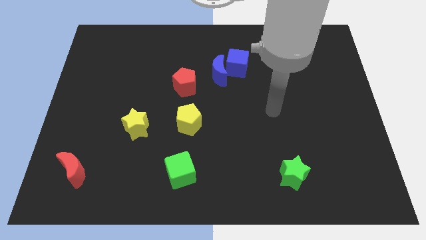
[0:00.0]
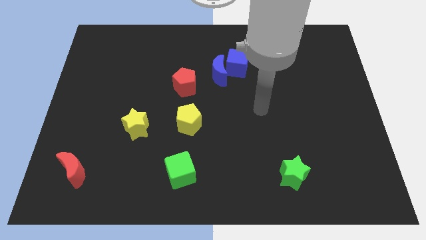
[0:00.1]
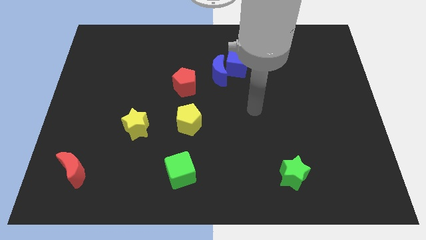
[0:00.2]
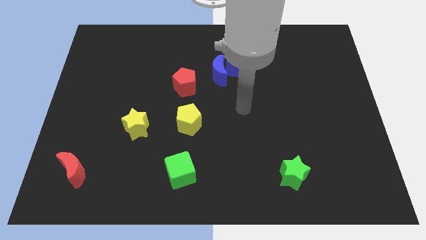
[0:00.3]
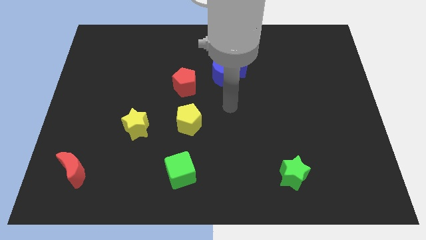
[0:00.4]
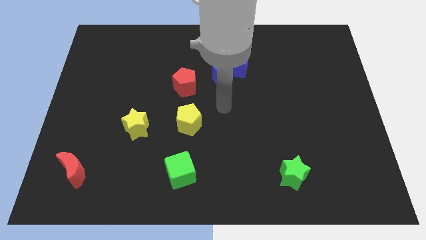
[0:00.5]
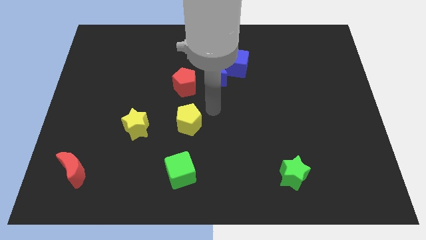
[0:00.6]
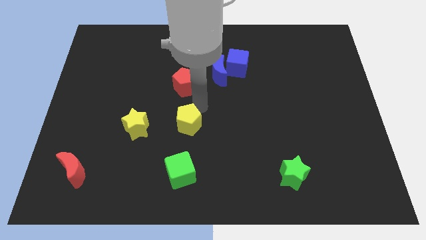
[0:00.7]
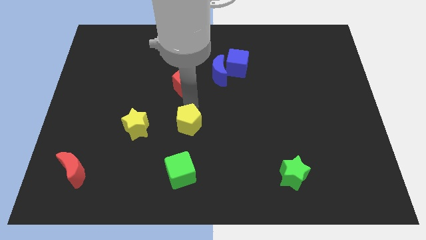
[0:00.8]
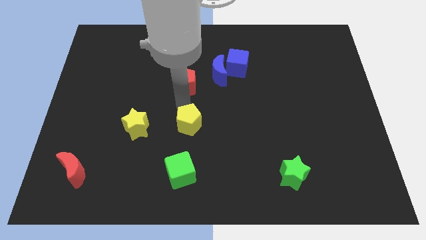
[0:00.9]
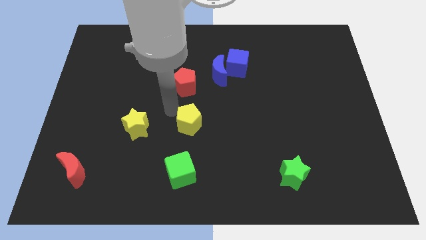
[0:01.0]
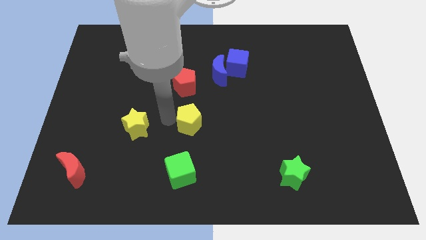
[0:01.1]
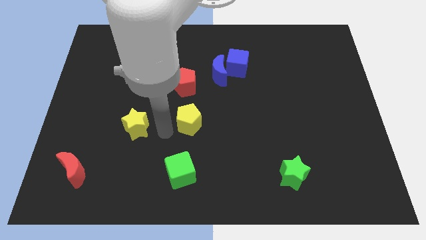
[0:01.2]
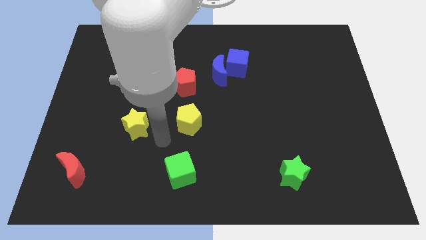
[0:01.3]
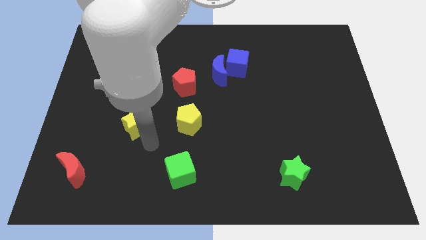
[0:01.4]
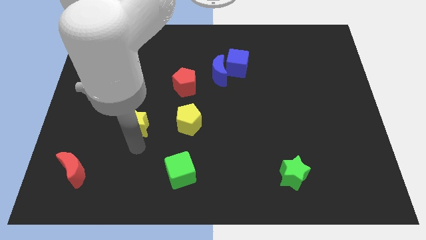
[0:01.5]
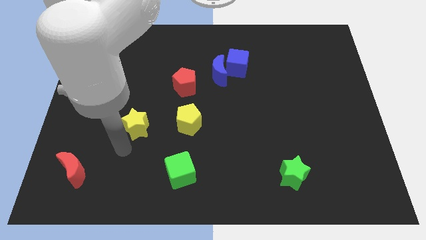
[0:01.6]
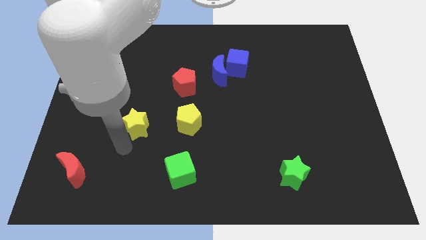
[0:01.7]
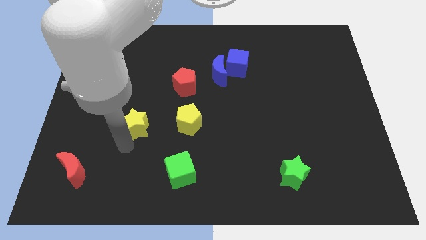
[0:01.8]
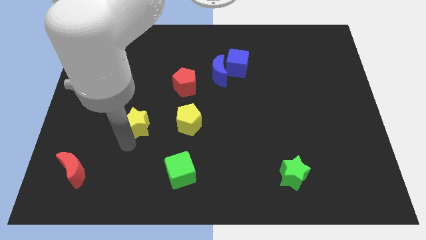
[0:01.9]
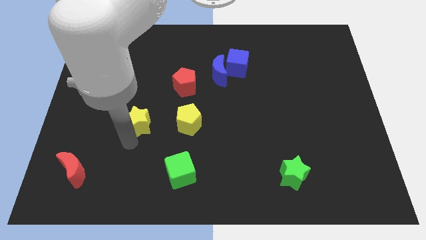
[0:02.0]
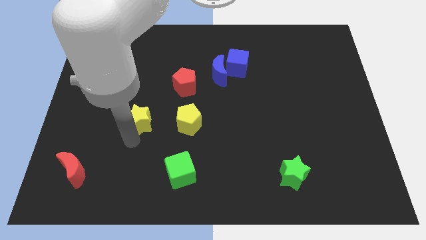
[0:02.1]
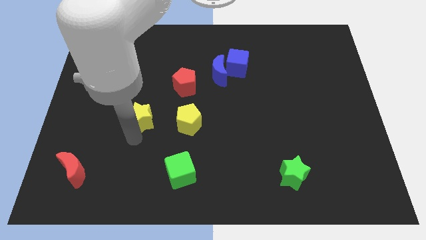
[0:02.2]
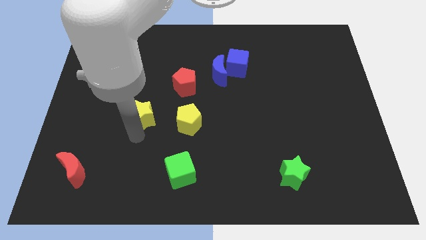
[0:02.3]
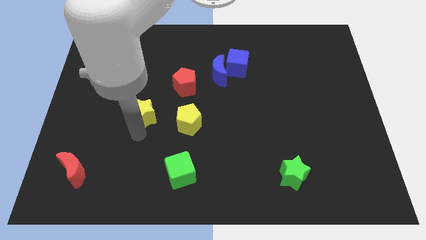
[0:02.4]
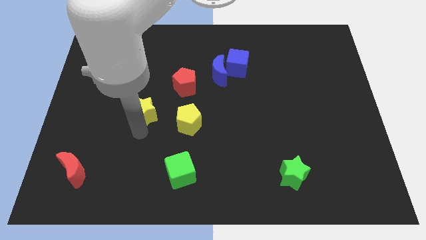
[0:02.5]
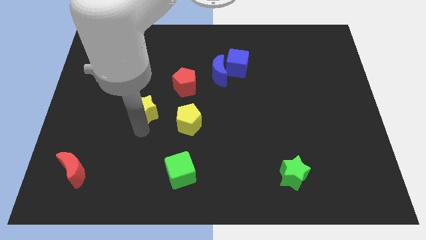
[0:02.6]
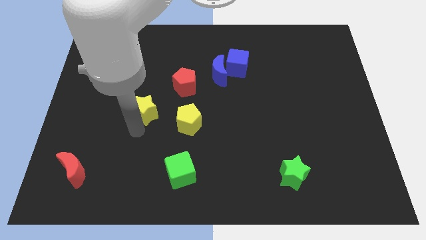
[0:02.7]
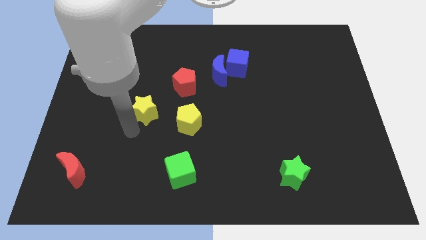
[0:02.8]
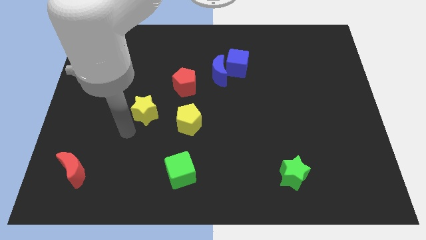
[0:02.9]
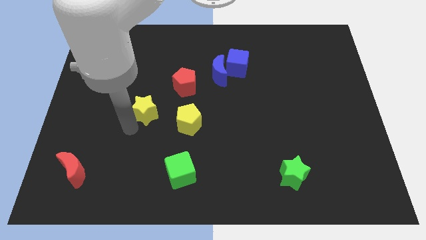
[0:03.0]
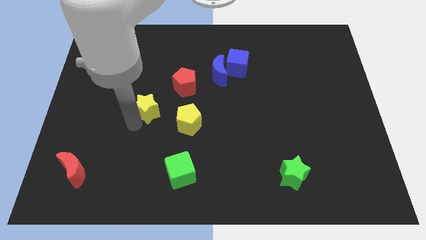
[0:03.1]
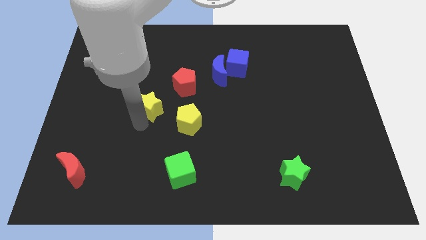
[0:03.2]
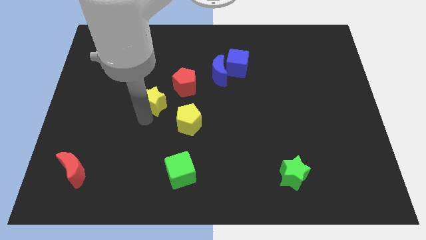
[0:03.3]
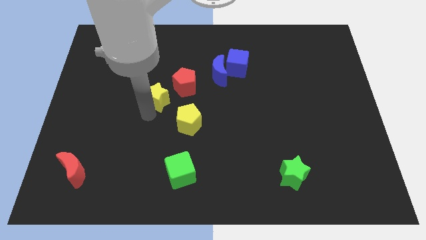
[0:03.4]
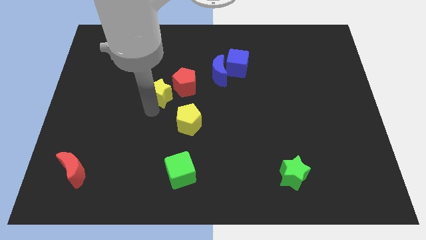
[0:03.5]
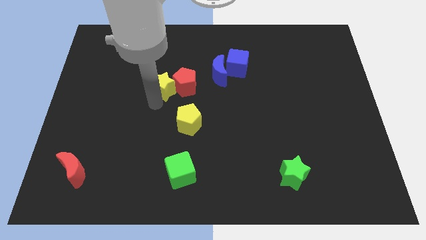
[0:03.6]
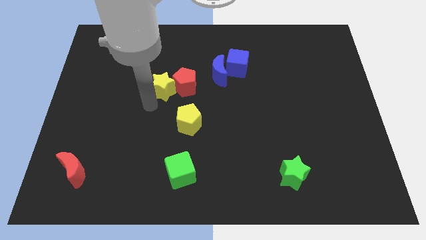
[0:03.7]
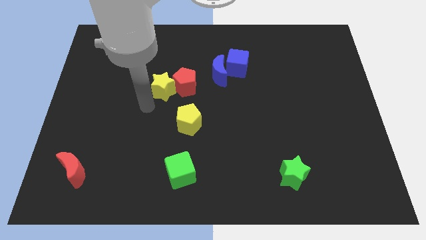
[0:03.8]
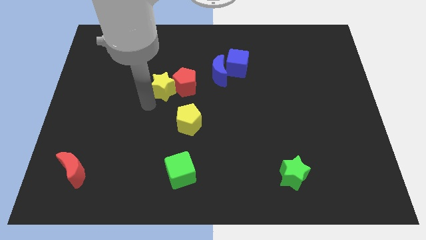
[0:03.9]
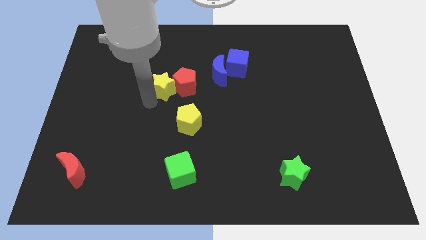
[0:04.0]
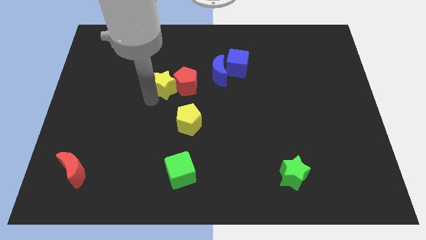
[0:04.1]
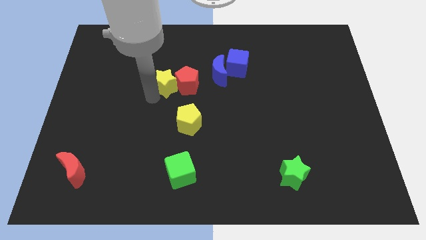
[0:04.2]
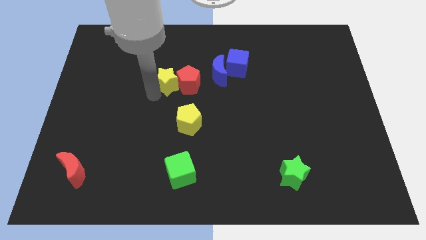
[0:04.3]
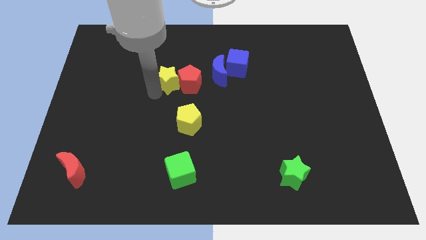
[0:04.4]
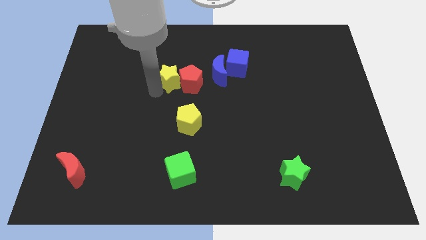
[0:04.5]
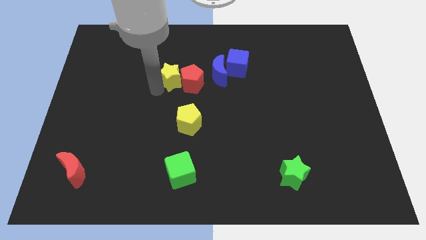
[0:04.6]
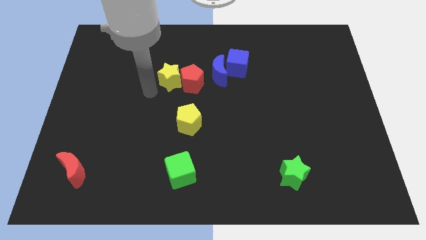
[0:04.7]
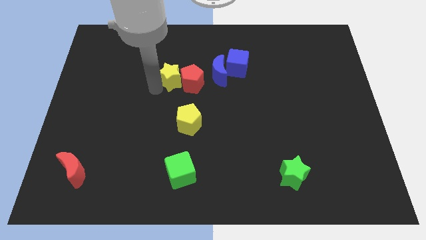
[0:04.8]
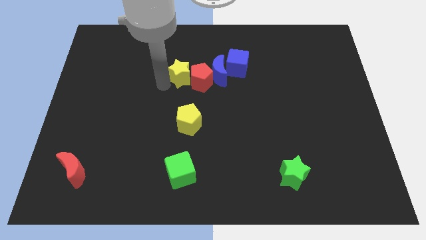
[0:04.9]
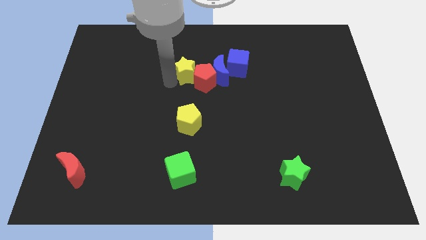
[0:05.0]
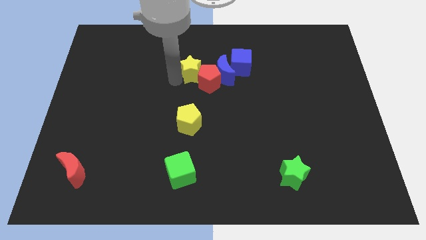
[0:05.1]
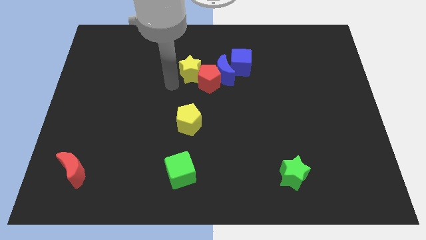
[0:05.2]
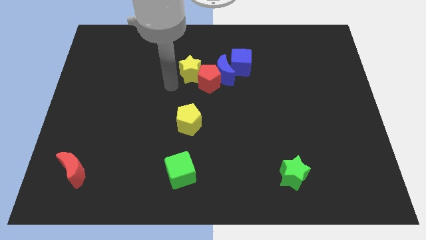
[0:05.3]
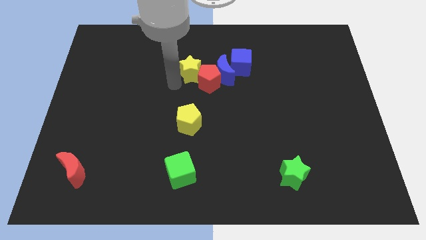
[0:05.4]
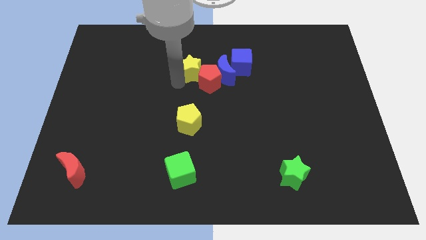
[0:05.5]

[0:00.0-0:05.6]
slide the yellow star up and then right

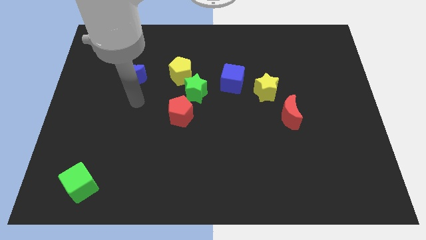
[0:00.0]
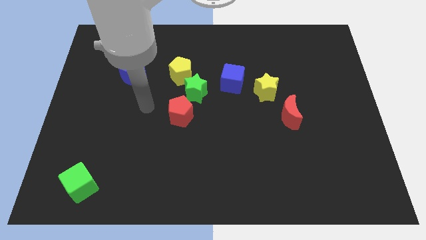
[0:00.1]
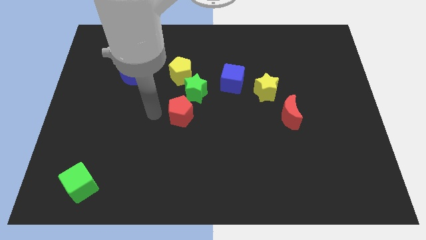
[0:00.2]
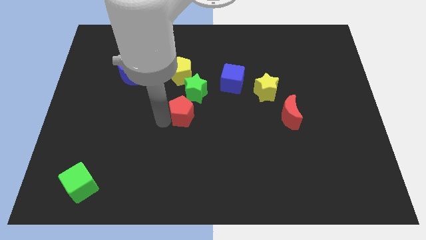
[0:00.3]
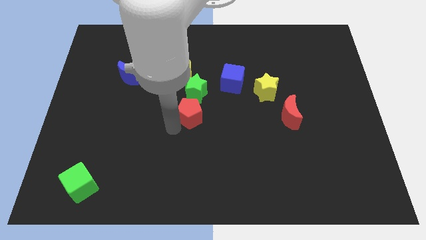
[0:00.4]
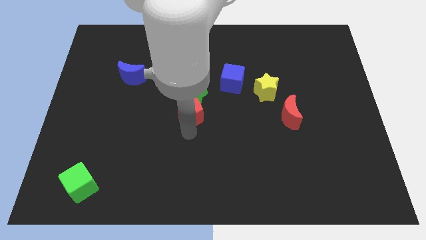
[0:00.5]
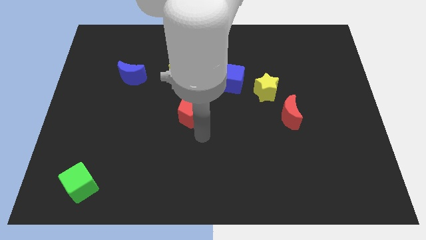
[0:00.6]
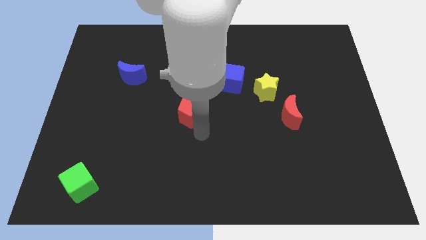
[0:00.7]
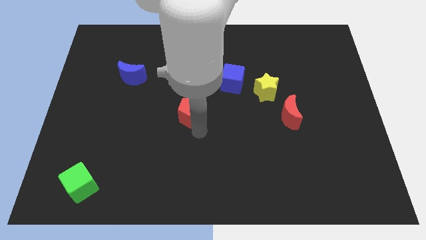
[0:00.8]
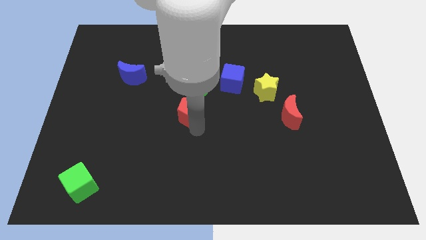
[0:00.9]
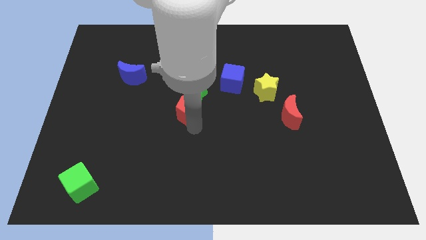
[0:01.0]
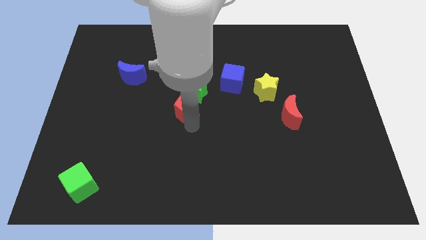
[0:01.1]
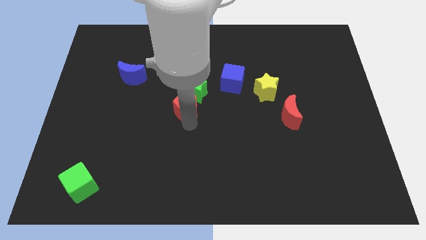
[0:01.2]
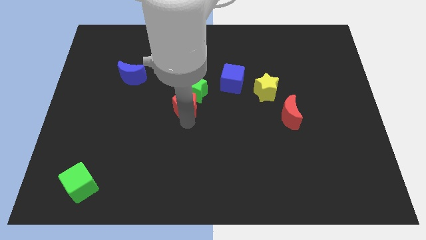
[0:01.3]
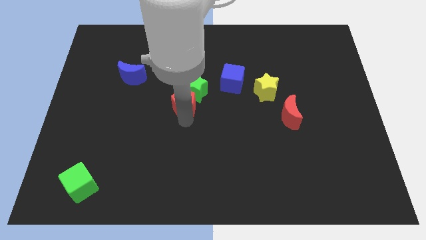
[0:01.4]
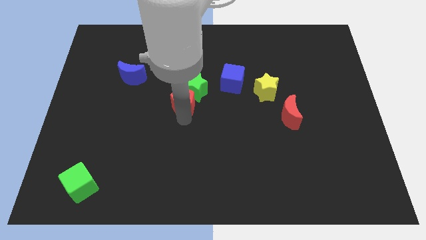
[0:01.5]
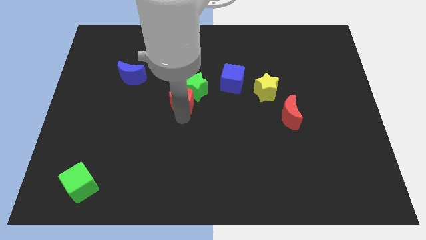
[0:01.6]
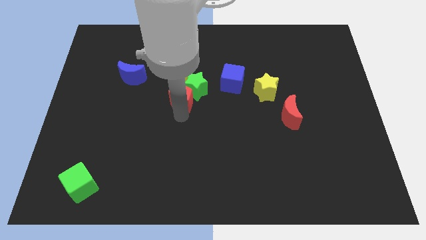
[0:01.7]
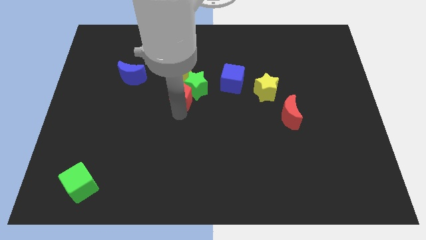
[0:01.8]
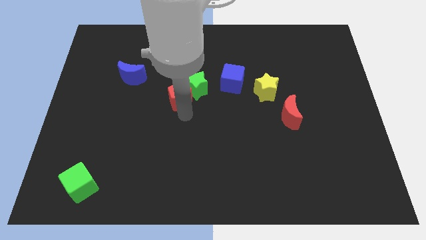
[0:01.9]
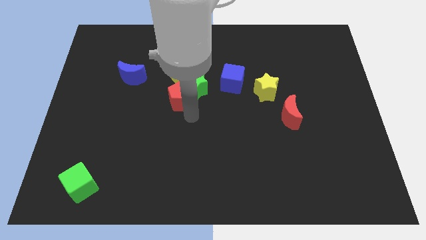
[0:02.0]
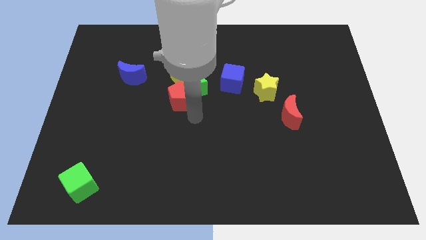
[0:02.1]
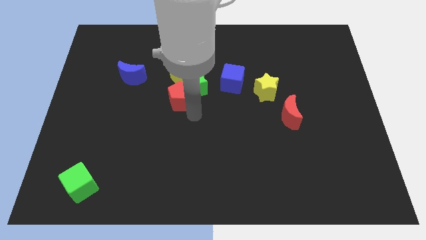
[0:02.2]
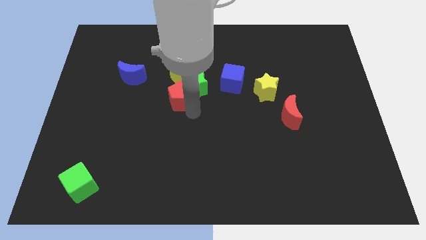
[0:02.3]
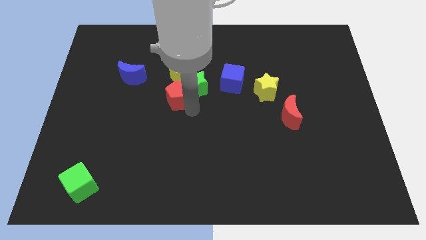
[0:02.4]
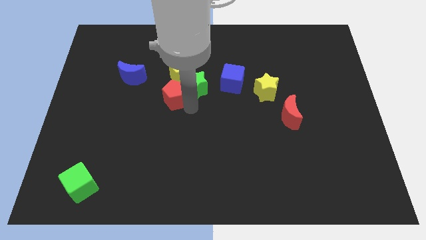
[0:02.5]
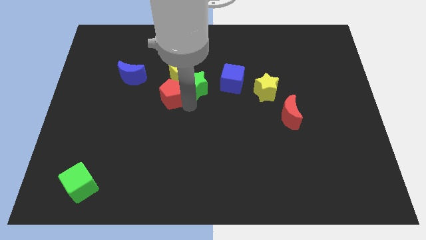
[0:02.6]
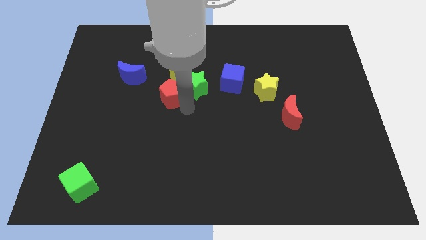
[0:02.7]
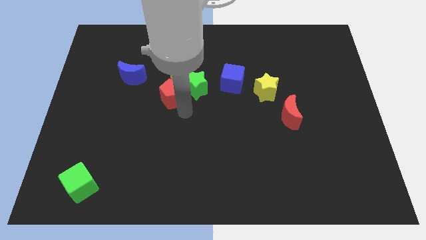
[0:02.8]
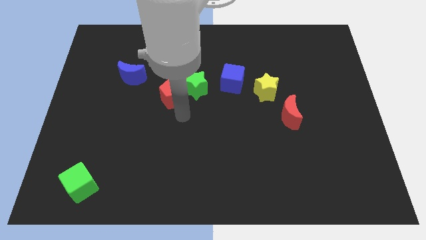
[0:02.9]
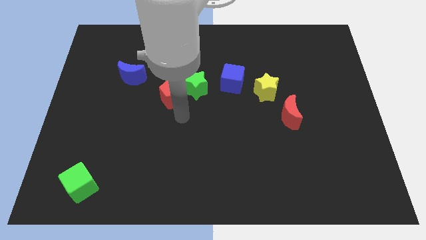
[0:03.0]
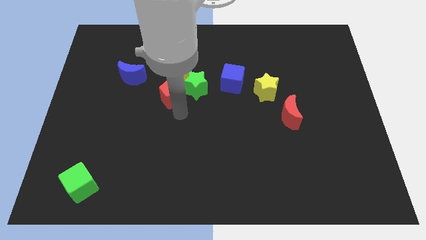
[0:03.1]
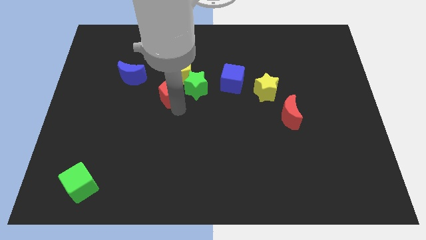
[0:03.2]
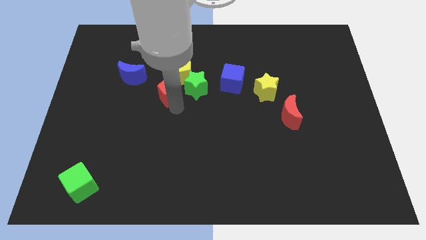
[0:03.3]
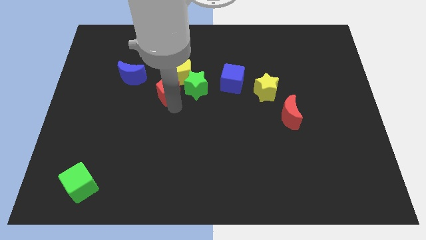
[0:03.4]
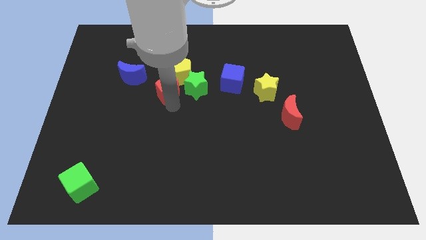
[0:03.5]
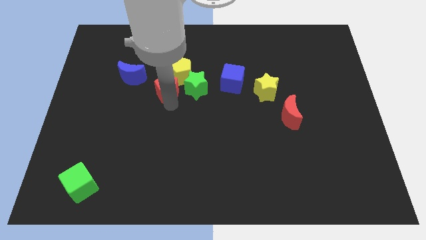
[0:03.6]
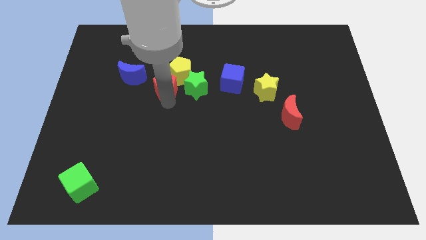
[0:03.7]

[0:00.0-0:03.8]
slide the red pentagon up a little bit
